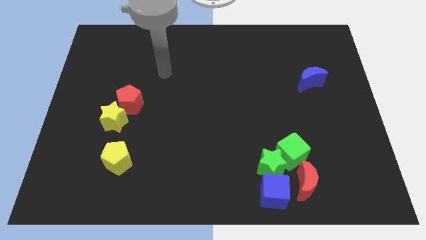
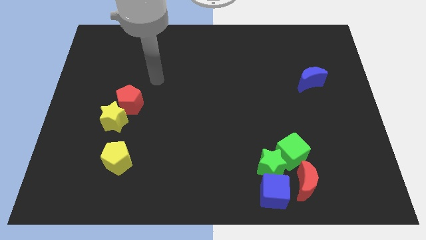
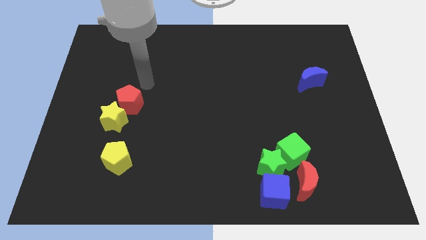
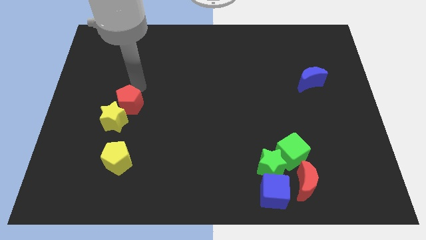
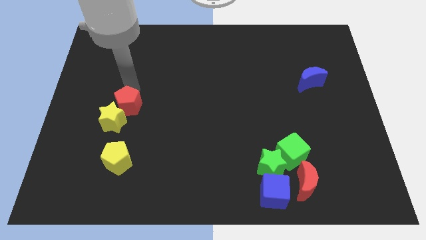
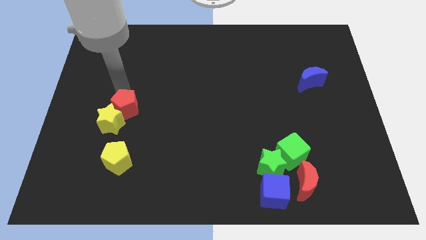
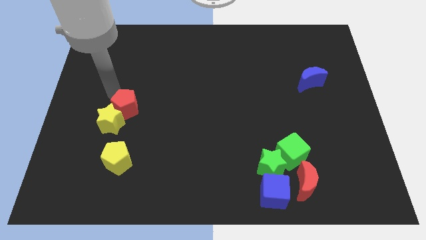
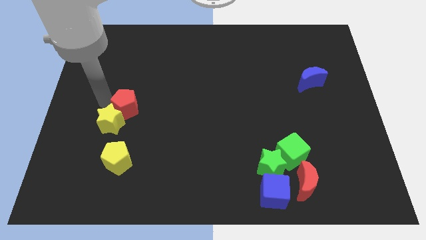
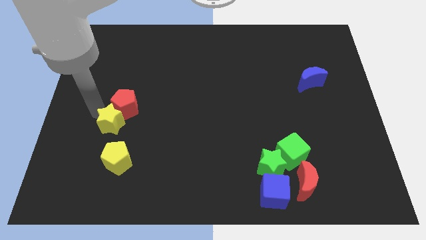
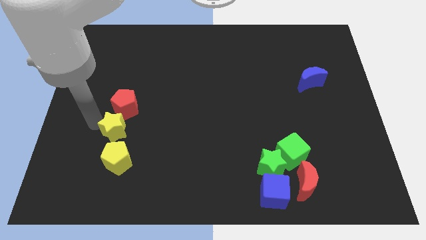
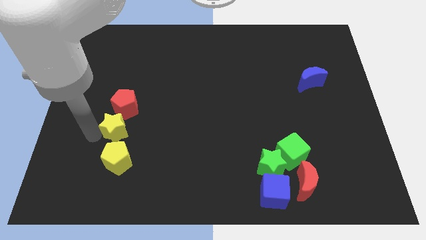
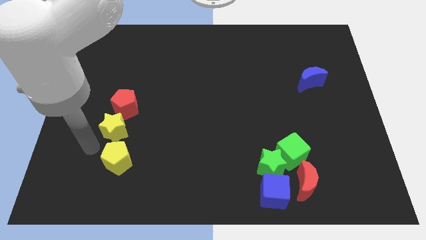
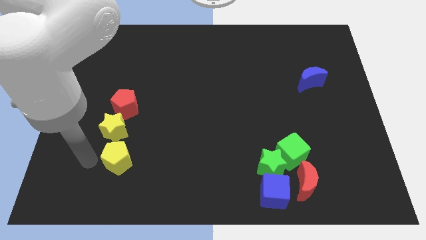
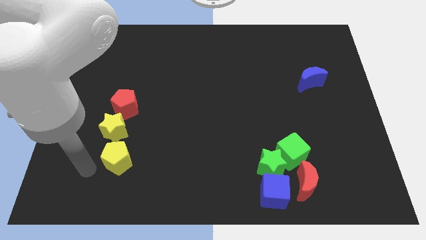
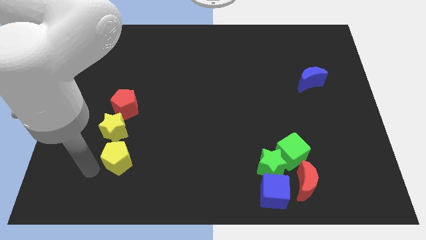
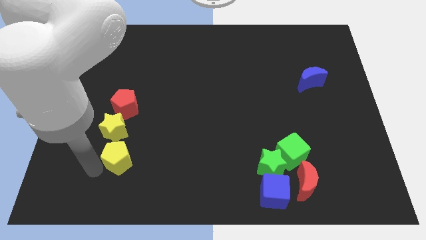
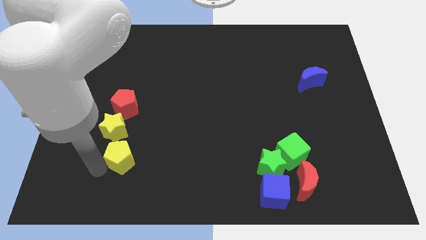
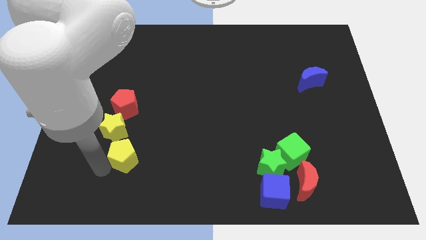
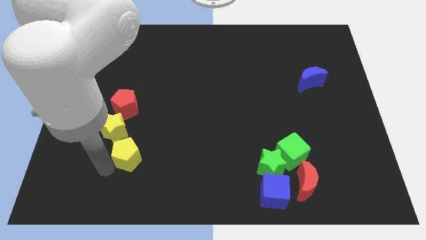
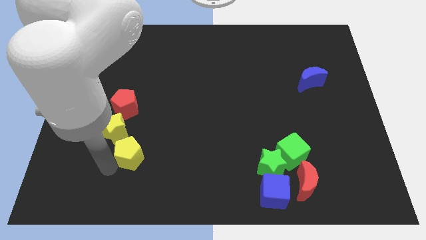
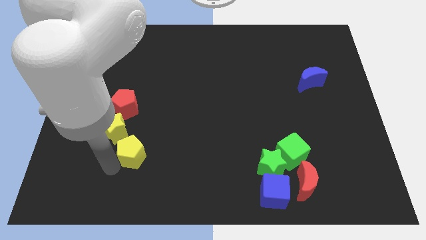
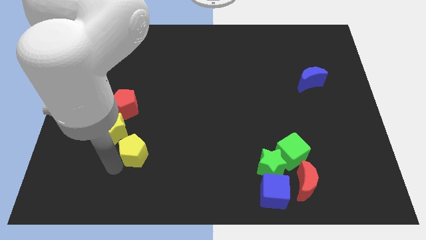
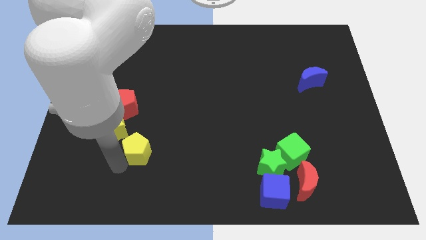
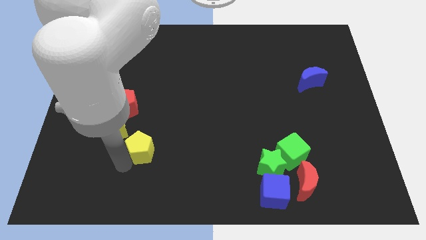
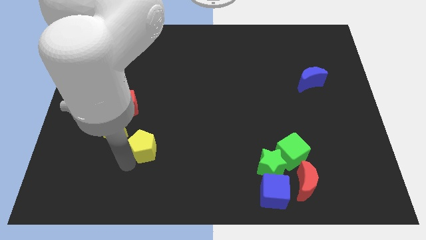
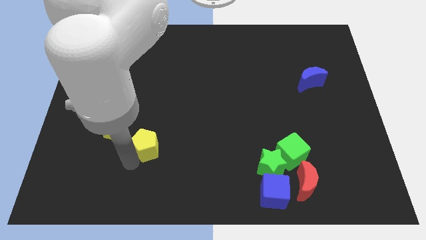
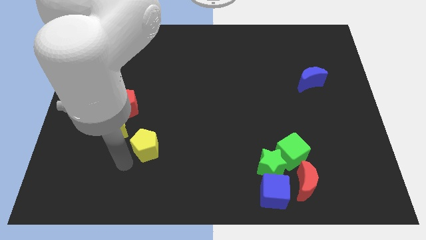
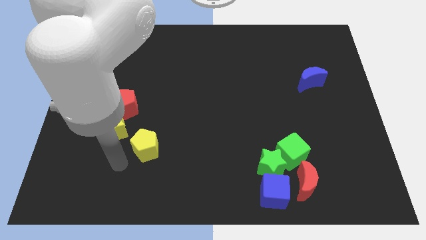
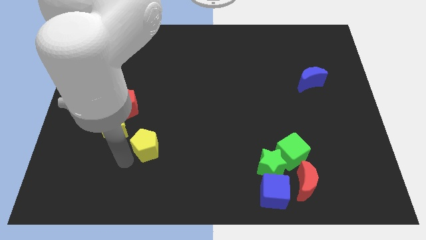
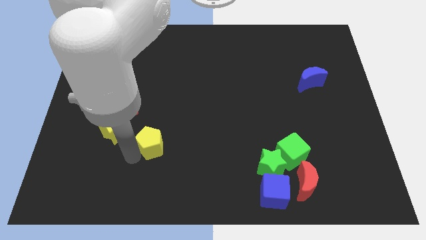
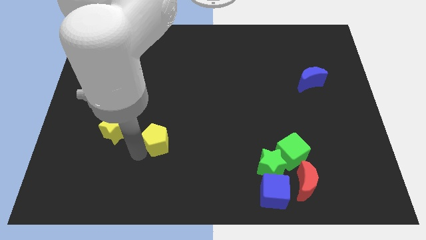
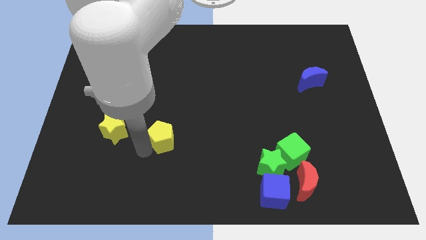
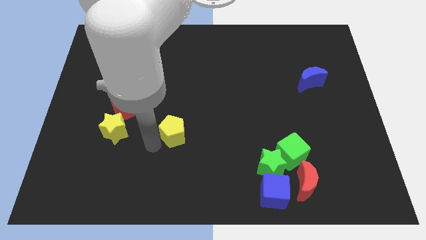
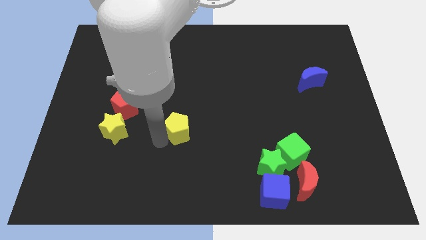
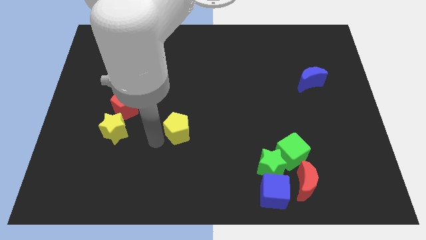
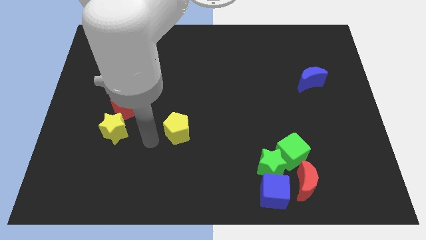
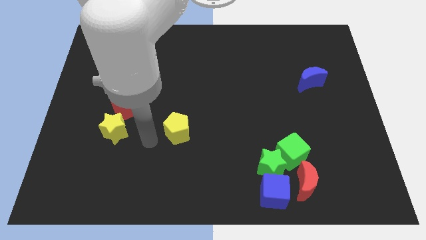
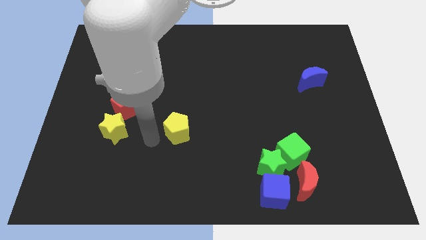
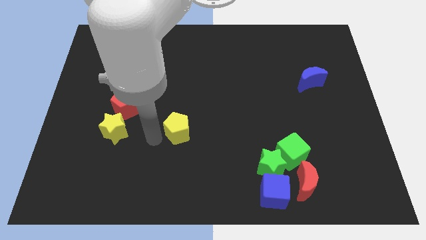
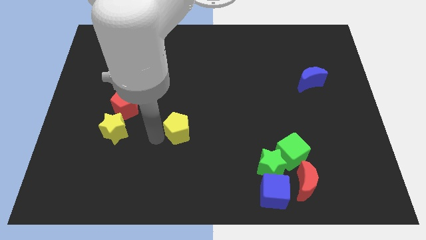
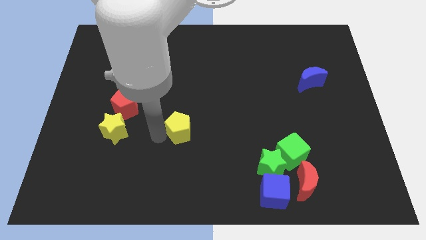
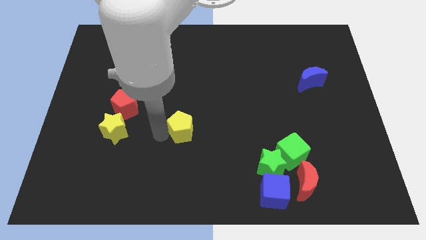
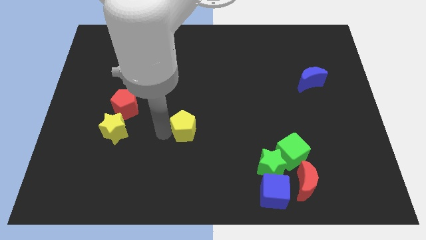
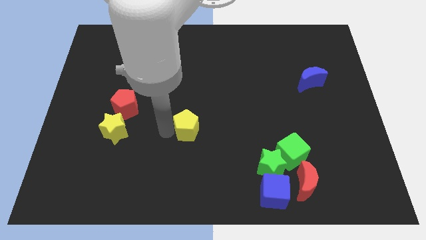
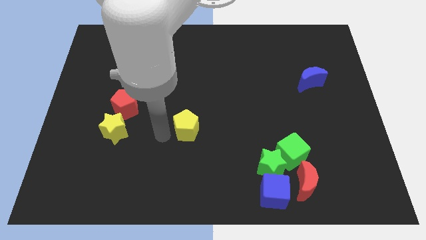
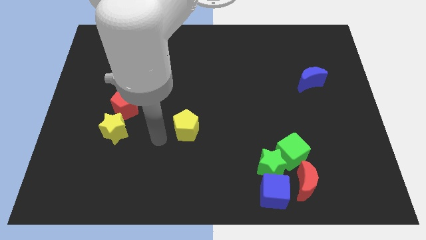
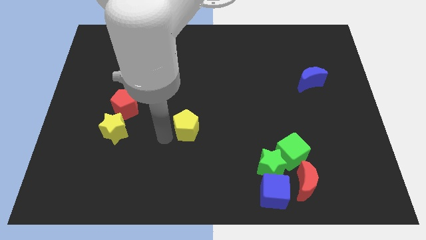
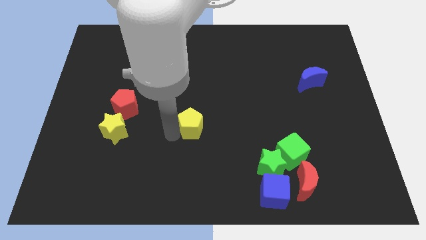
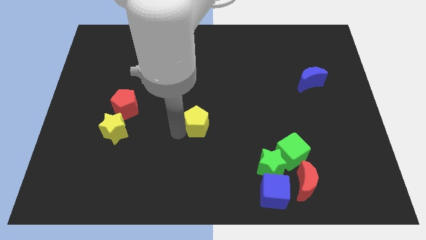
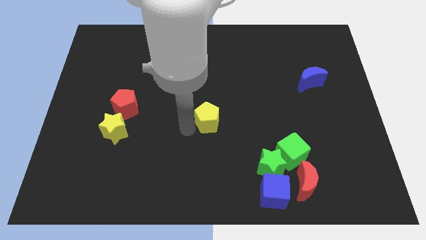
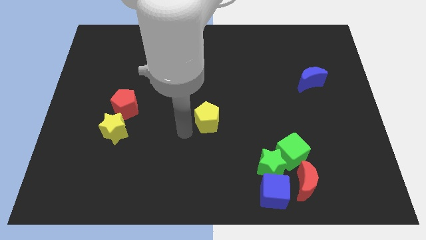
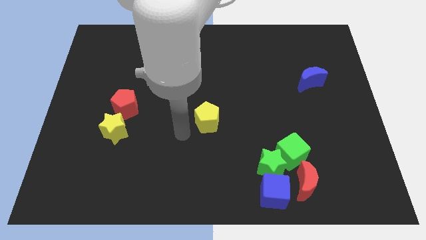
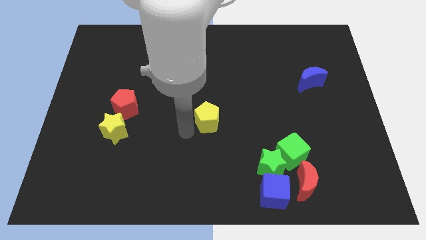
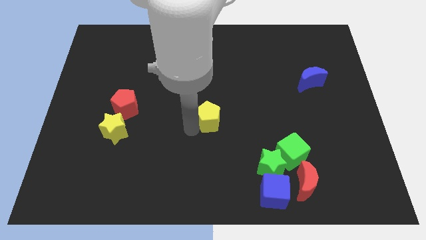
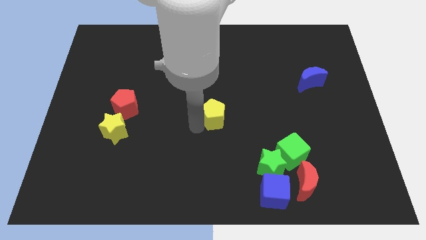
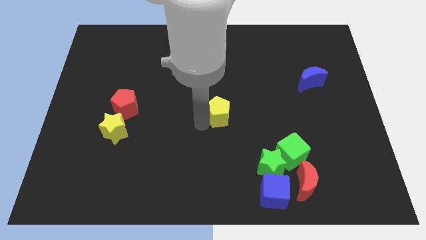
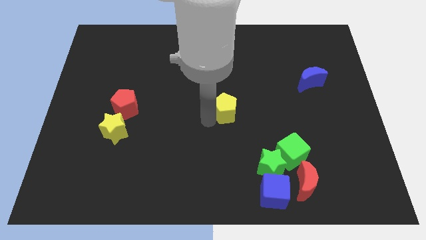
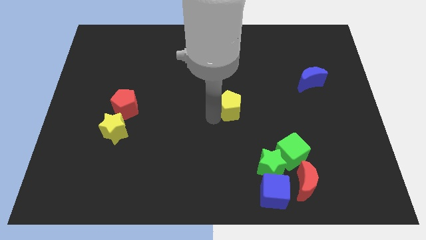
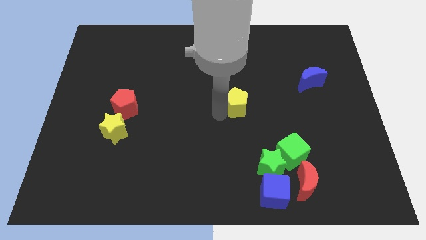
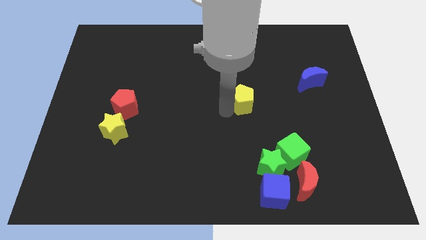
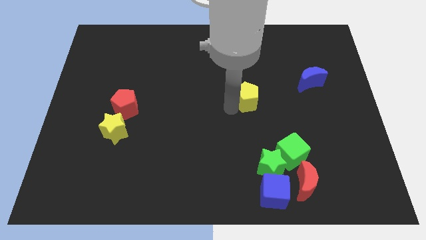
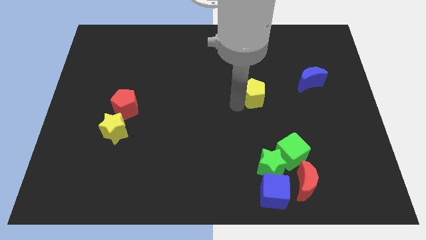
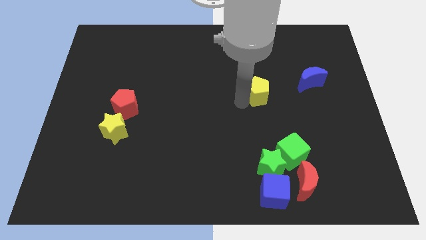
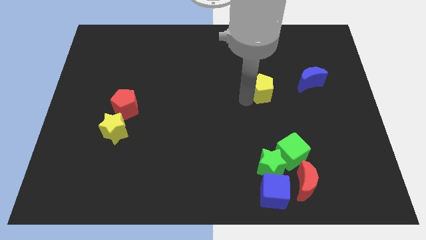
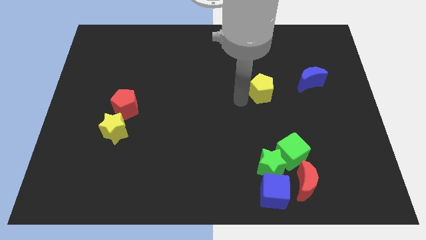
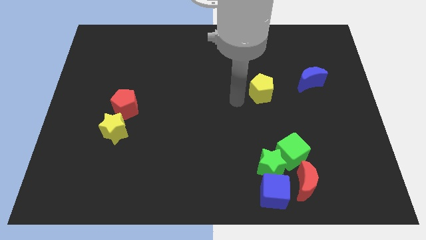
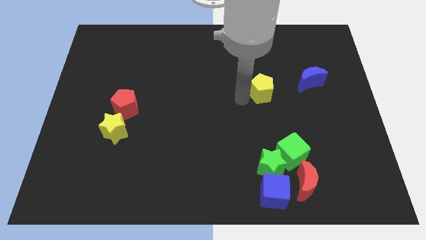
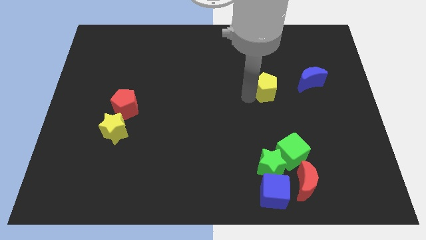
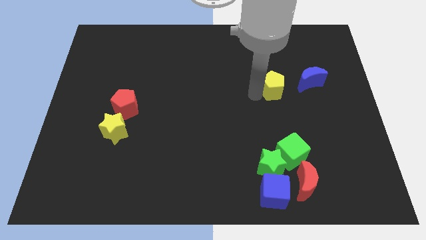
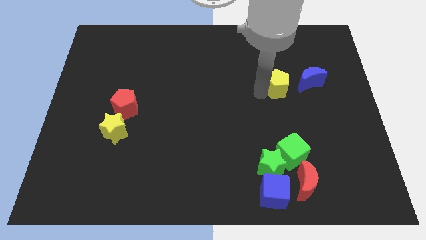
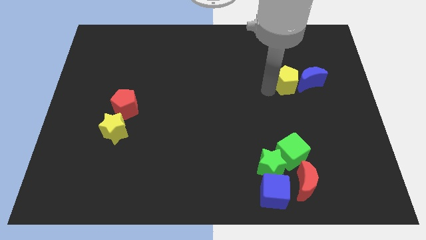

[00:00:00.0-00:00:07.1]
move the yellow pentagon close to the blue moon

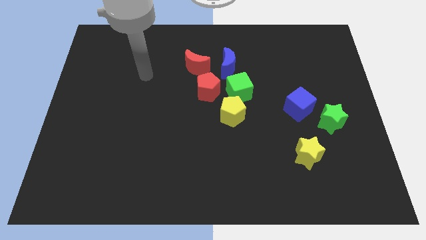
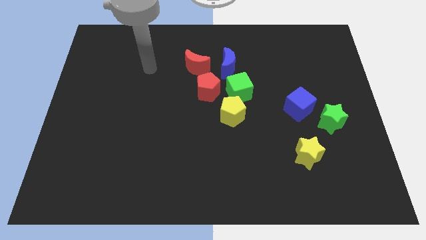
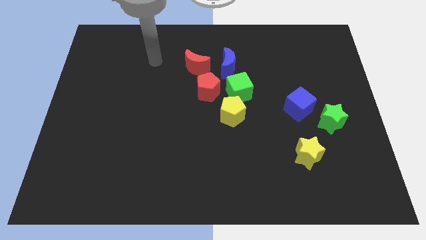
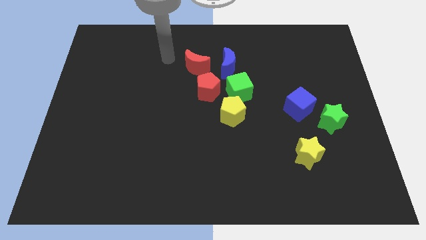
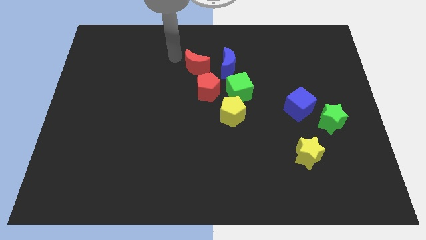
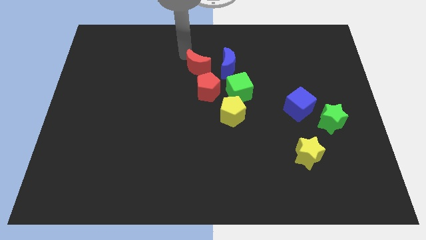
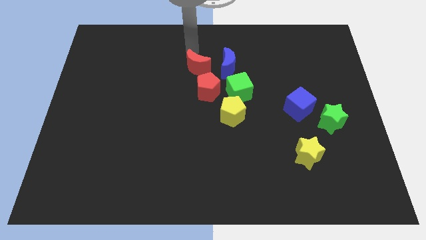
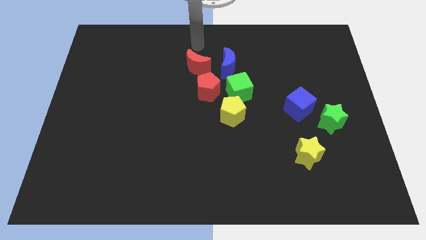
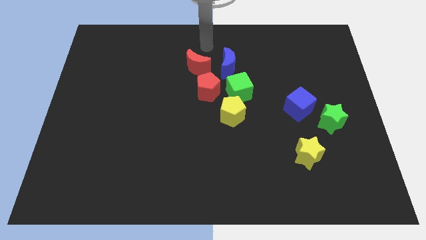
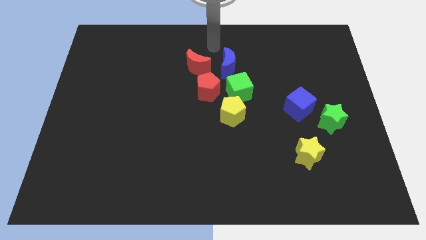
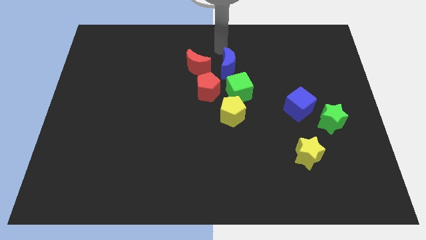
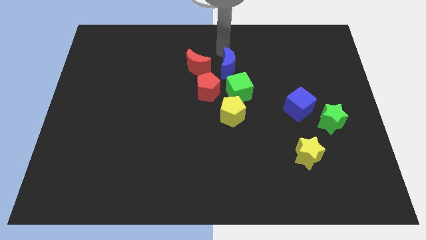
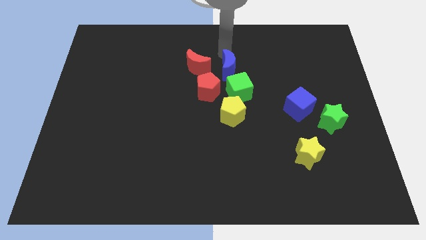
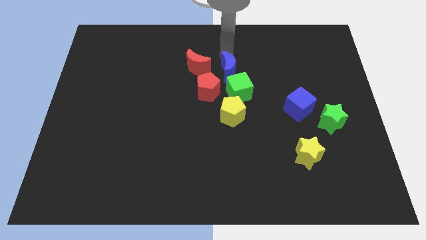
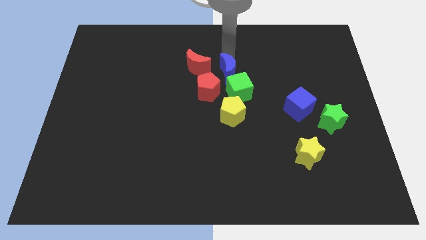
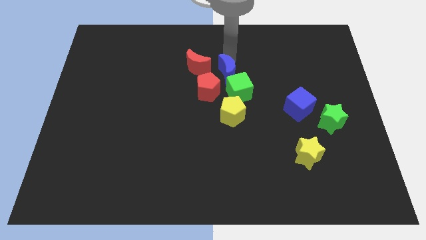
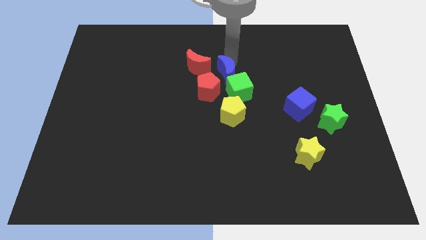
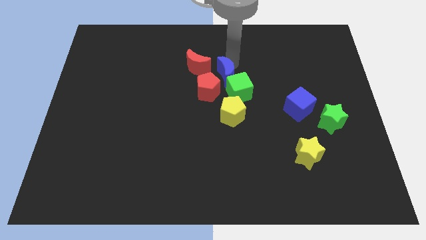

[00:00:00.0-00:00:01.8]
put the blue moon close to the green cube
